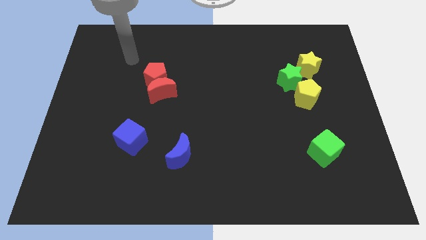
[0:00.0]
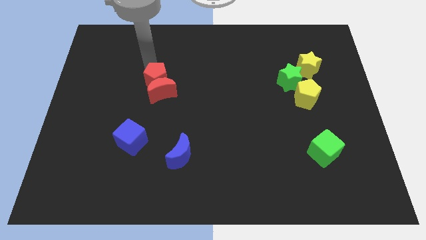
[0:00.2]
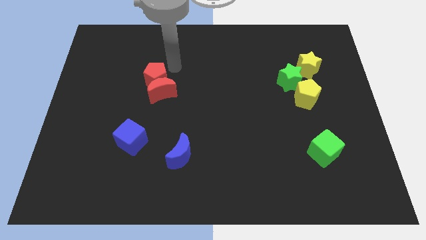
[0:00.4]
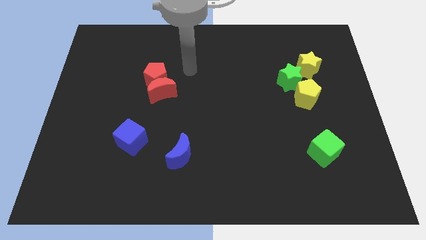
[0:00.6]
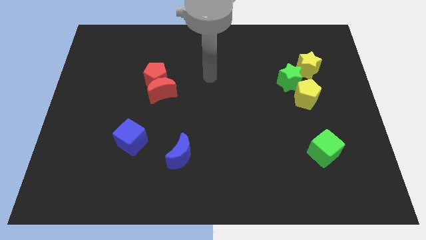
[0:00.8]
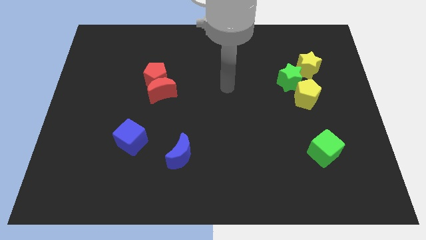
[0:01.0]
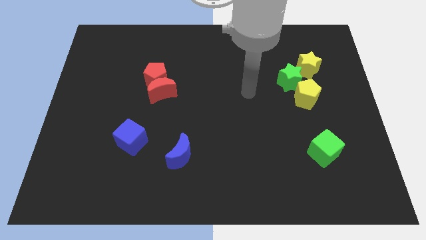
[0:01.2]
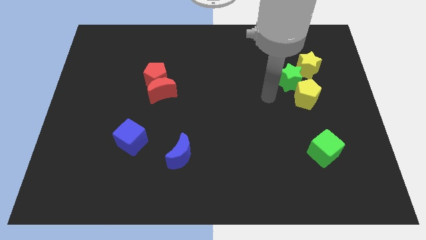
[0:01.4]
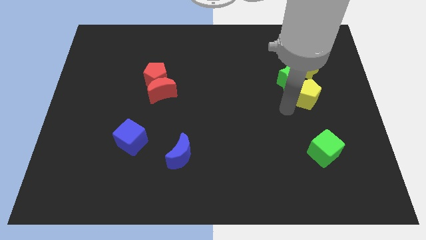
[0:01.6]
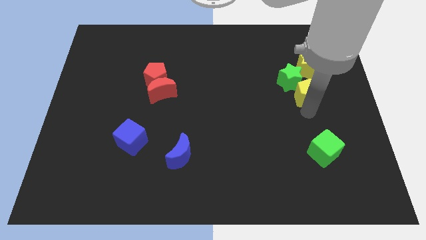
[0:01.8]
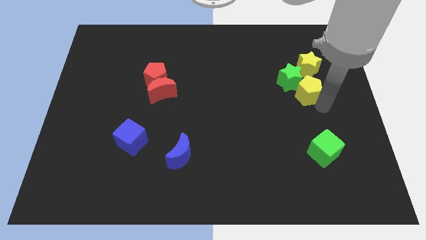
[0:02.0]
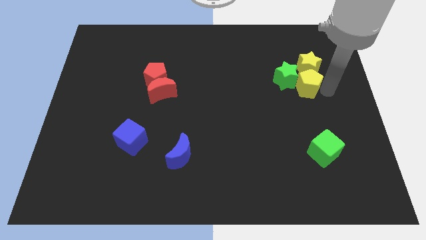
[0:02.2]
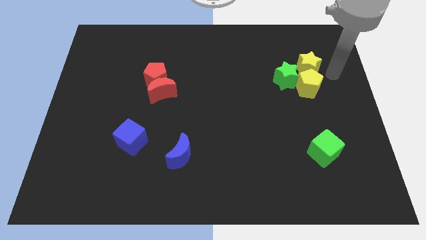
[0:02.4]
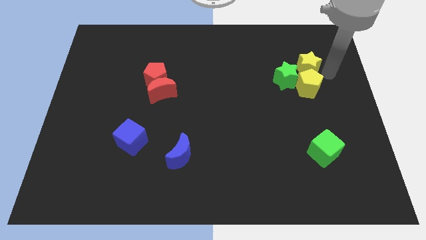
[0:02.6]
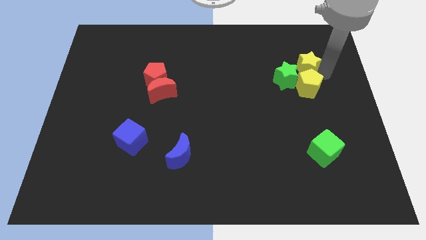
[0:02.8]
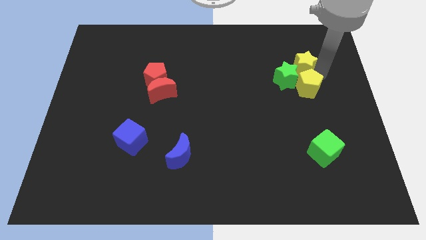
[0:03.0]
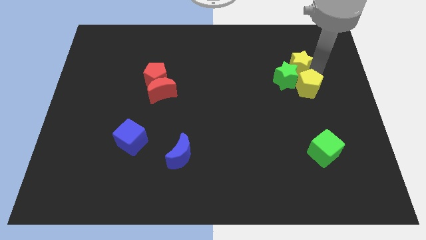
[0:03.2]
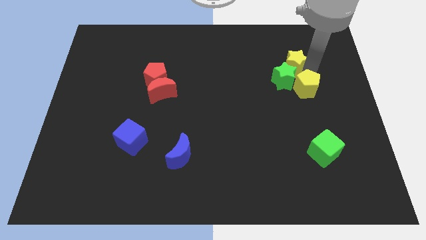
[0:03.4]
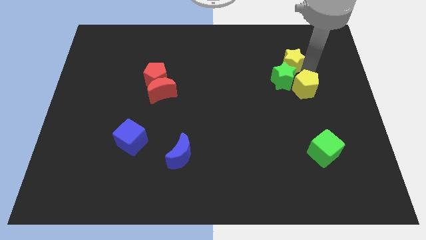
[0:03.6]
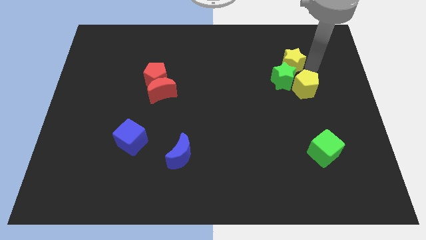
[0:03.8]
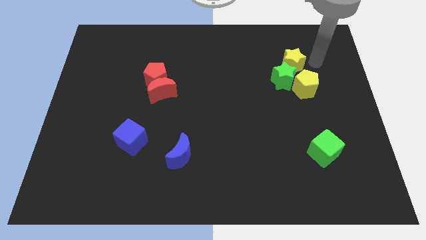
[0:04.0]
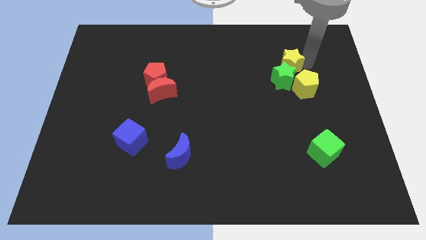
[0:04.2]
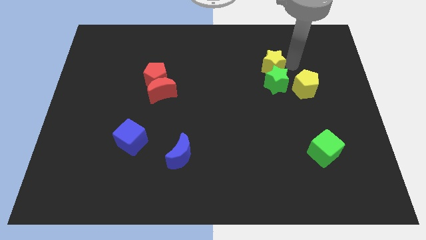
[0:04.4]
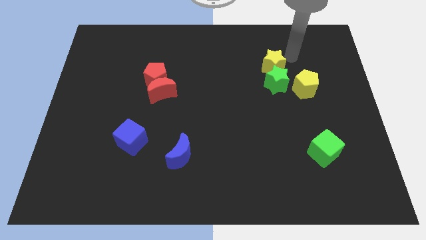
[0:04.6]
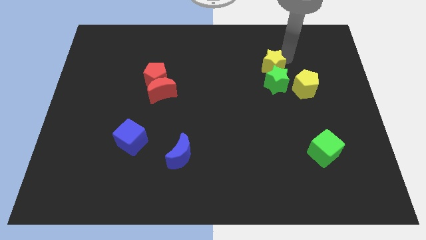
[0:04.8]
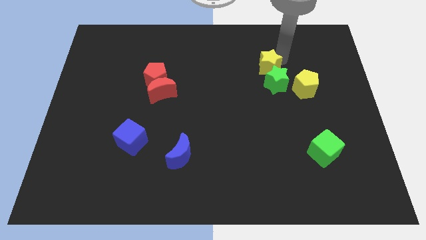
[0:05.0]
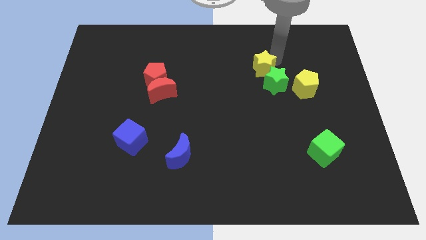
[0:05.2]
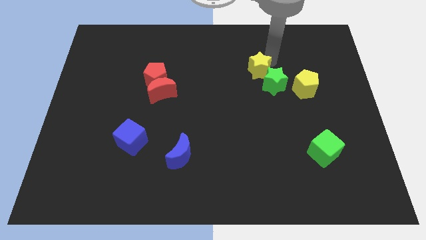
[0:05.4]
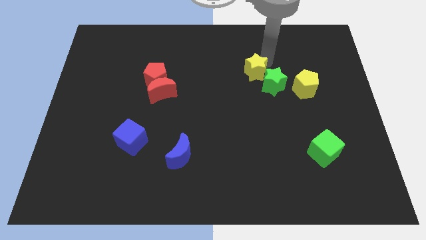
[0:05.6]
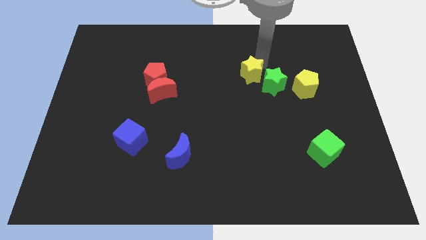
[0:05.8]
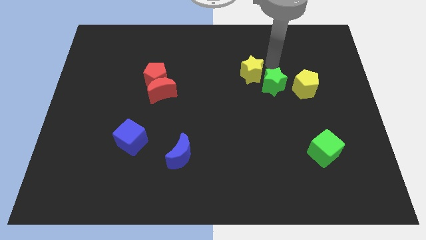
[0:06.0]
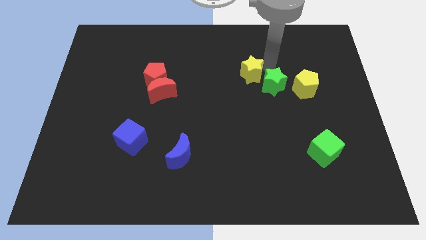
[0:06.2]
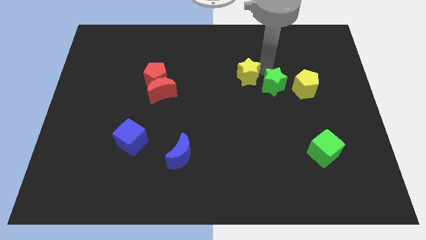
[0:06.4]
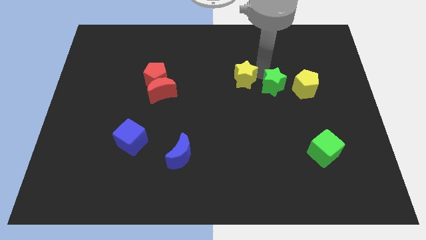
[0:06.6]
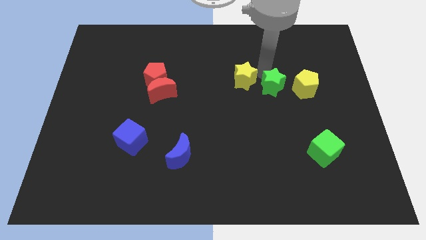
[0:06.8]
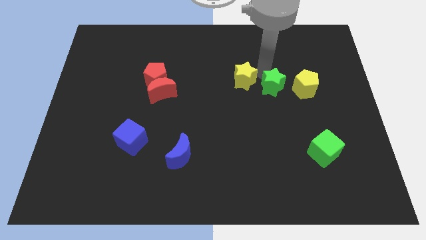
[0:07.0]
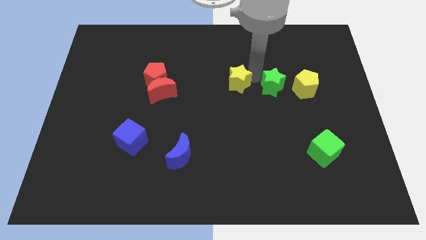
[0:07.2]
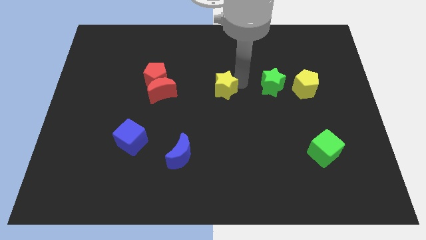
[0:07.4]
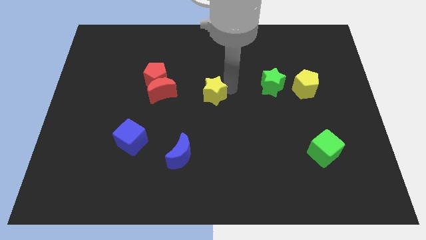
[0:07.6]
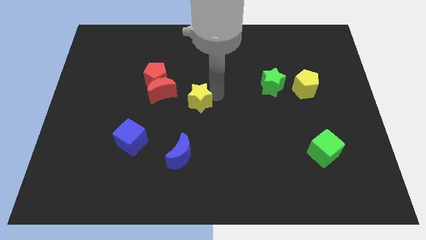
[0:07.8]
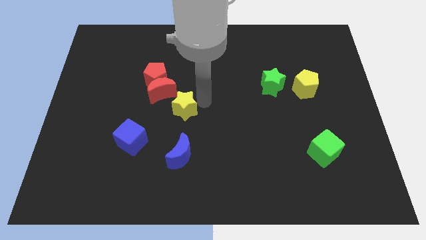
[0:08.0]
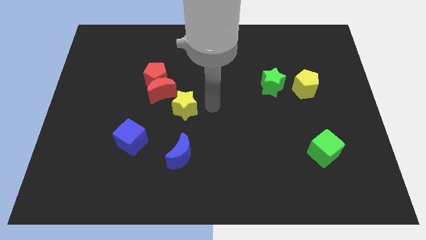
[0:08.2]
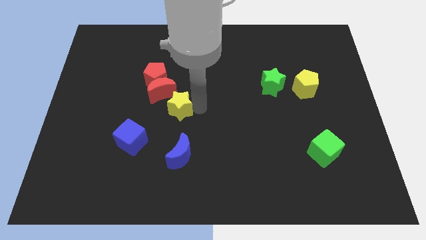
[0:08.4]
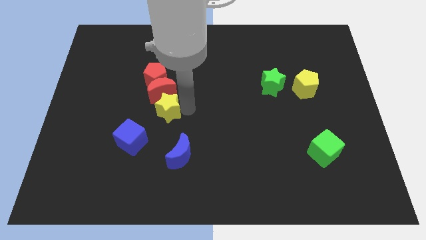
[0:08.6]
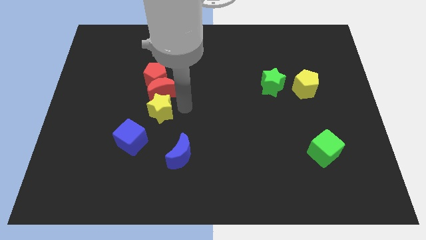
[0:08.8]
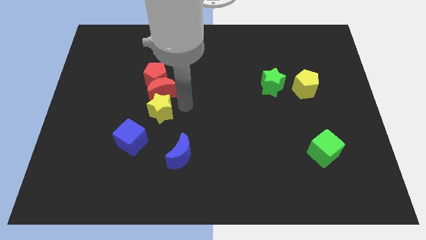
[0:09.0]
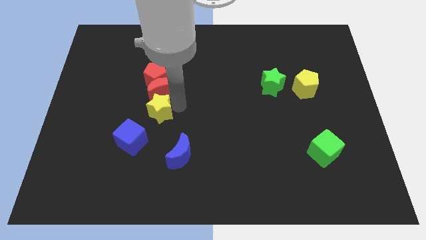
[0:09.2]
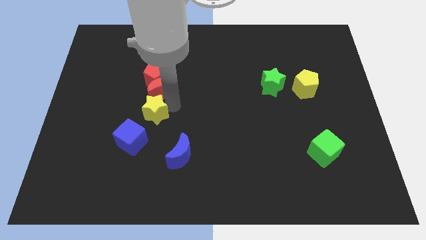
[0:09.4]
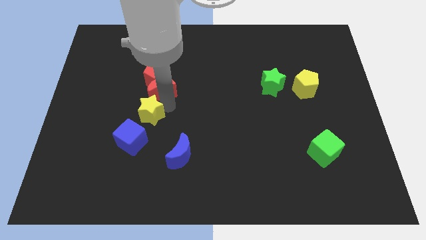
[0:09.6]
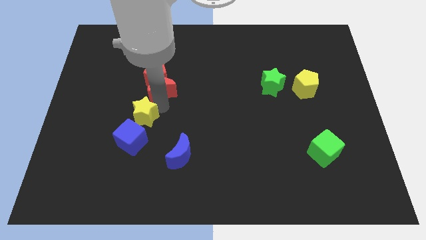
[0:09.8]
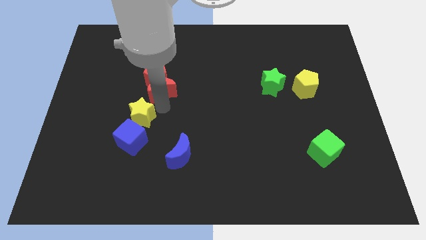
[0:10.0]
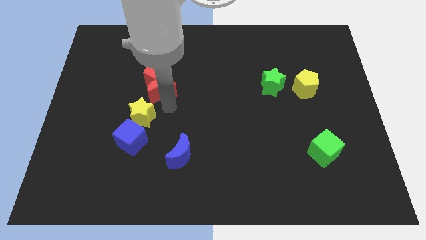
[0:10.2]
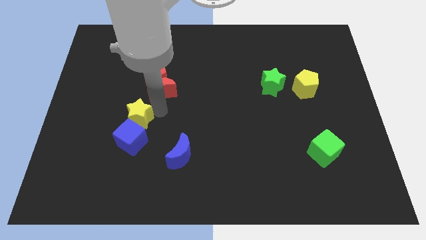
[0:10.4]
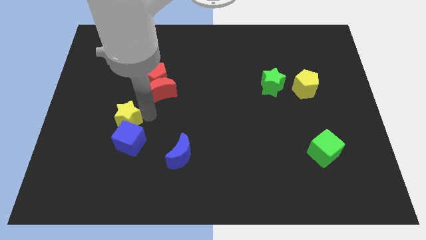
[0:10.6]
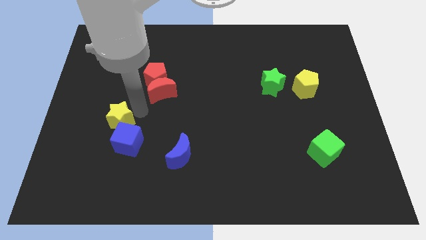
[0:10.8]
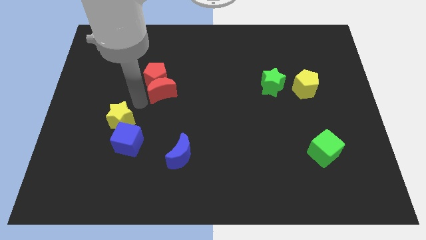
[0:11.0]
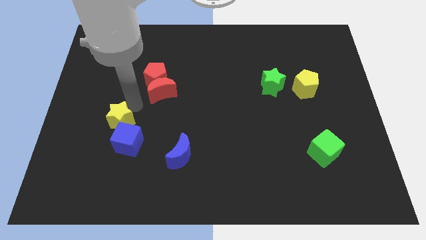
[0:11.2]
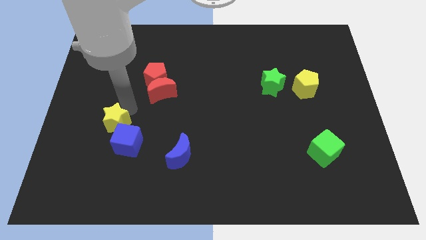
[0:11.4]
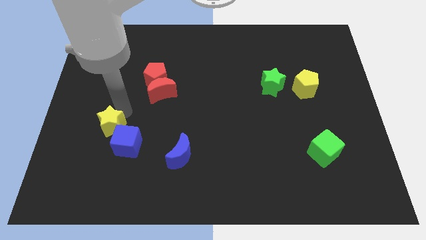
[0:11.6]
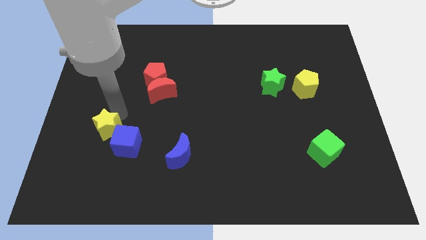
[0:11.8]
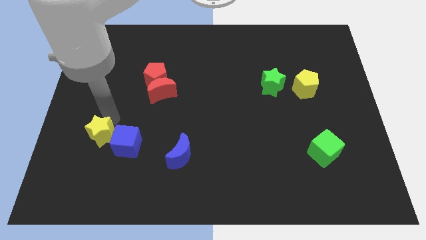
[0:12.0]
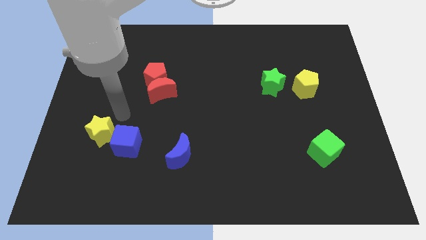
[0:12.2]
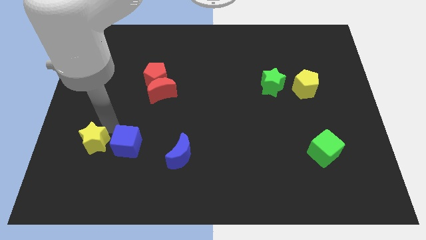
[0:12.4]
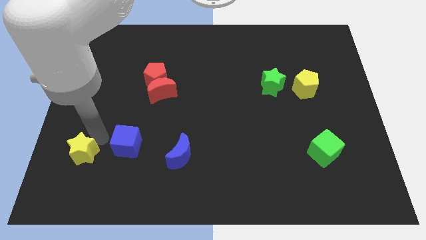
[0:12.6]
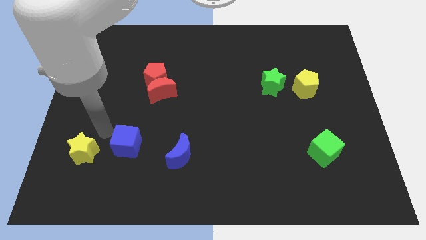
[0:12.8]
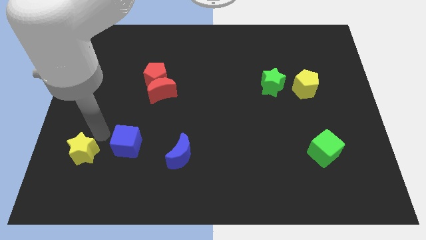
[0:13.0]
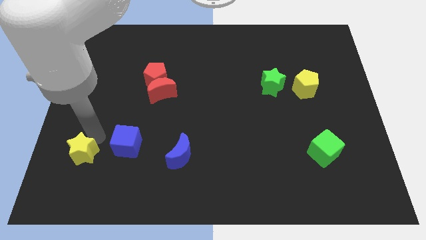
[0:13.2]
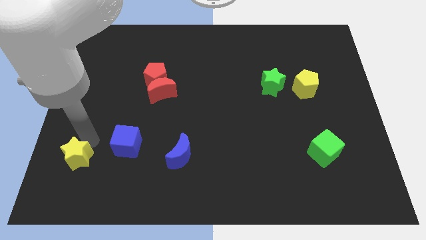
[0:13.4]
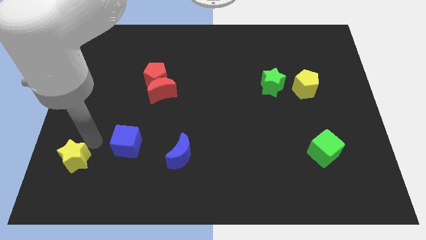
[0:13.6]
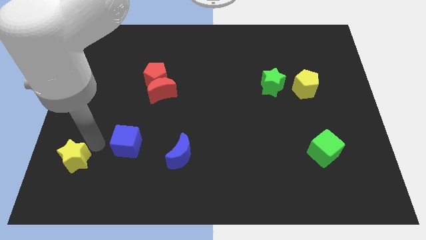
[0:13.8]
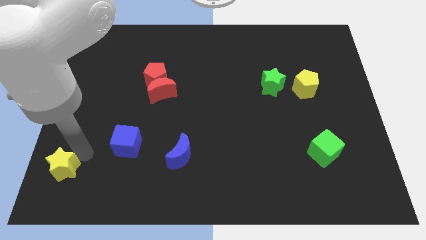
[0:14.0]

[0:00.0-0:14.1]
put the yellow star to the bottom left

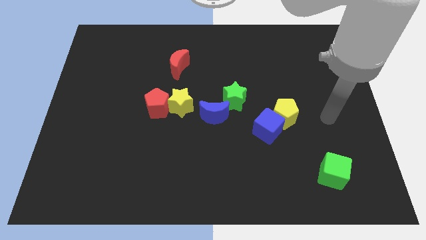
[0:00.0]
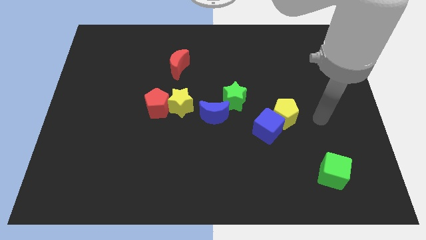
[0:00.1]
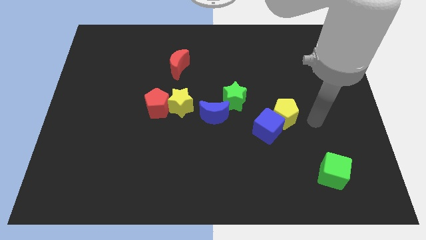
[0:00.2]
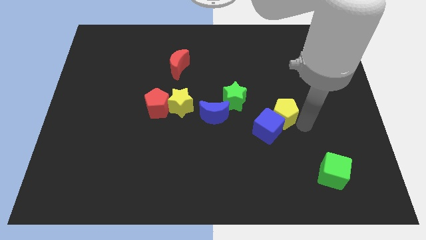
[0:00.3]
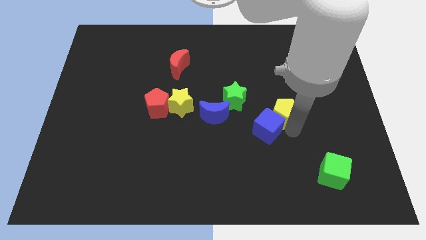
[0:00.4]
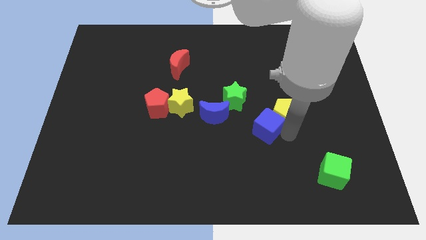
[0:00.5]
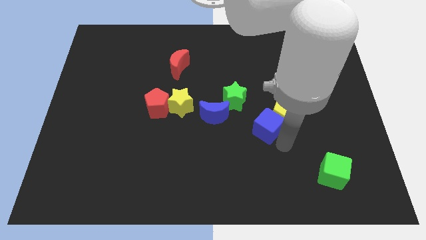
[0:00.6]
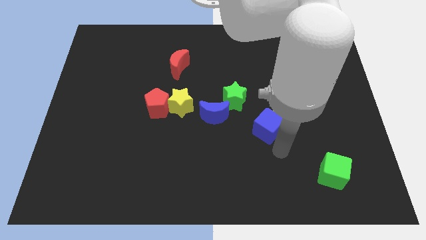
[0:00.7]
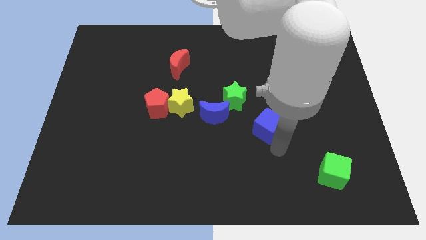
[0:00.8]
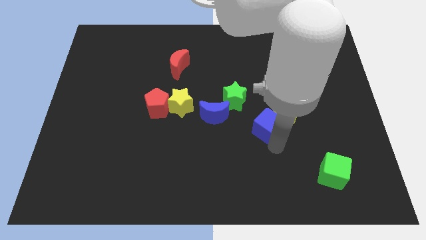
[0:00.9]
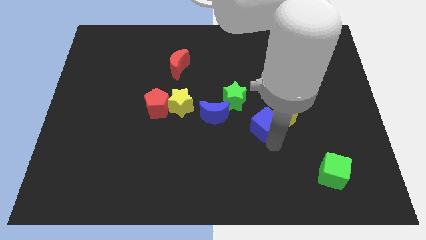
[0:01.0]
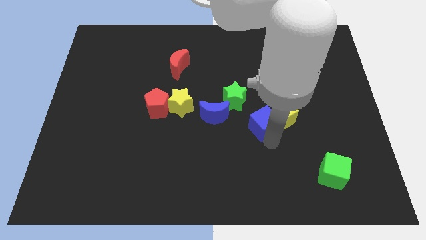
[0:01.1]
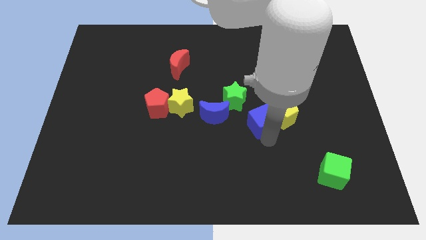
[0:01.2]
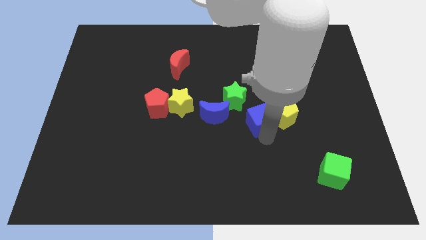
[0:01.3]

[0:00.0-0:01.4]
move the blue cube to the center of the board
